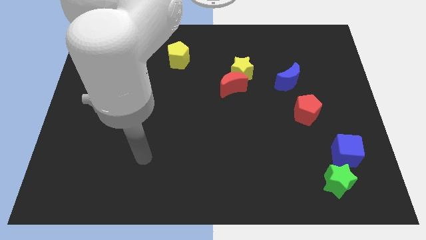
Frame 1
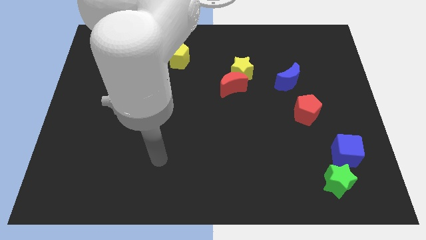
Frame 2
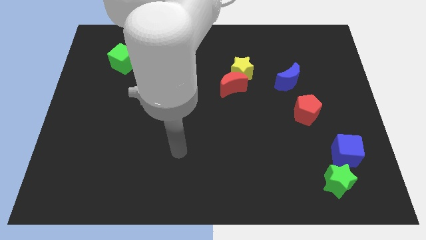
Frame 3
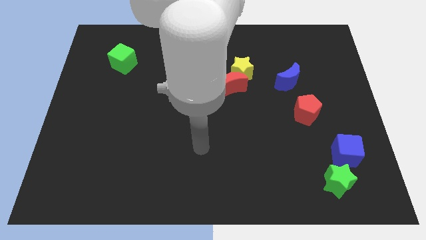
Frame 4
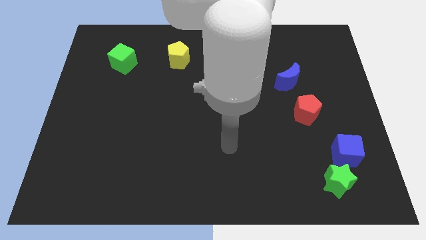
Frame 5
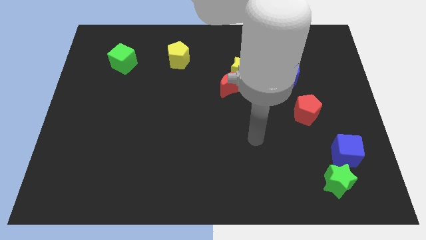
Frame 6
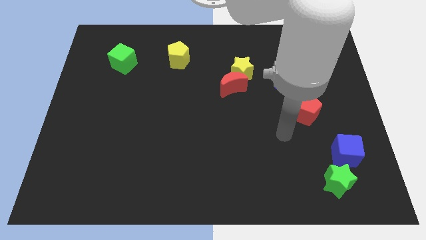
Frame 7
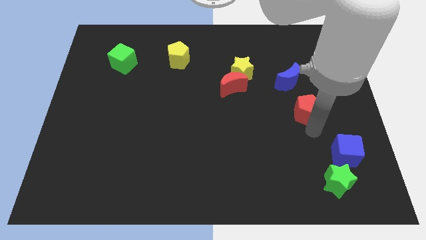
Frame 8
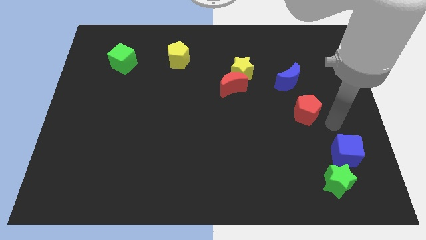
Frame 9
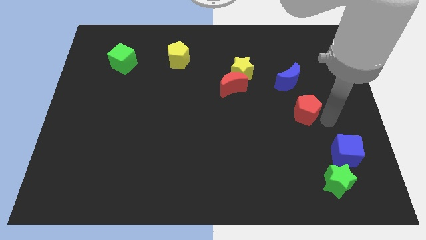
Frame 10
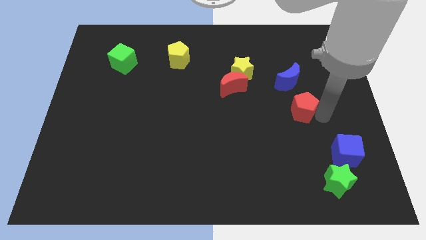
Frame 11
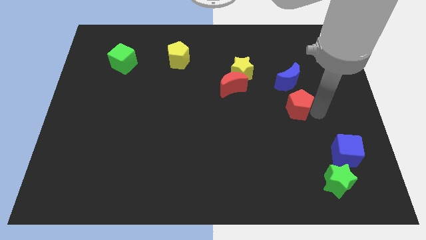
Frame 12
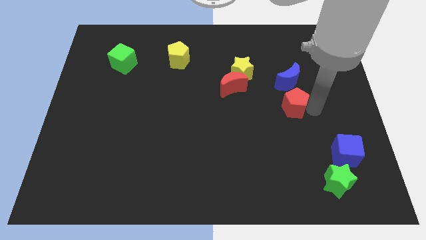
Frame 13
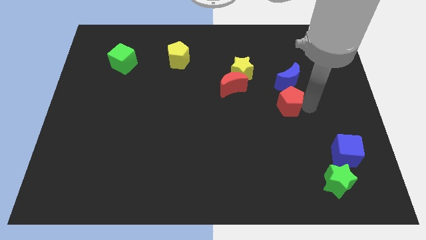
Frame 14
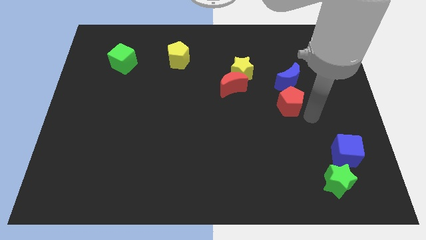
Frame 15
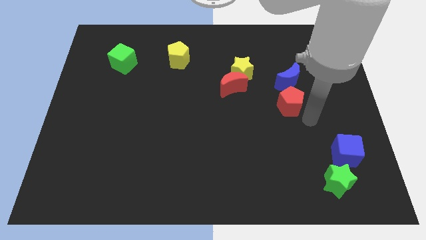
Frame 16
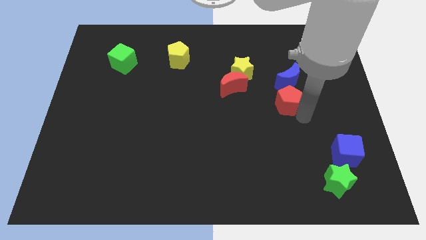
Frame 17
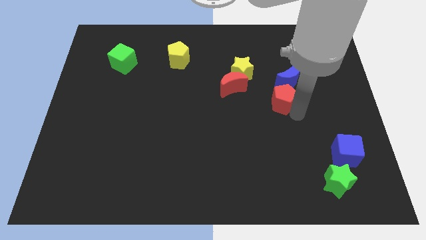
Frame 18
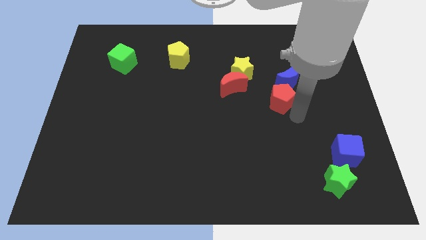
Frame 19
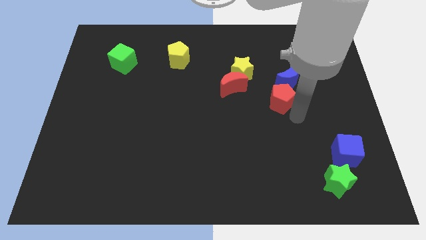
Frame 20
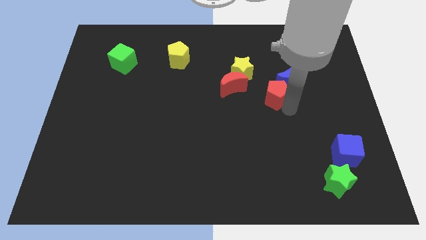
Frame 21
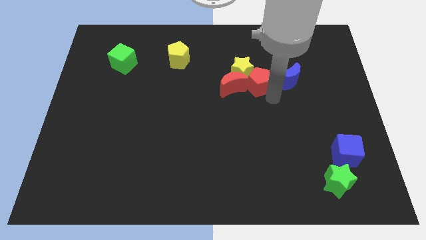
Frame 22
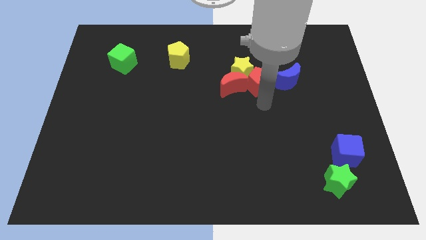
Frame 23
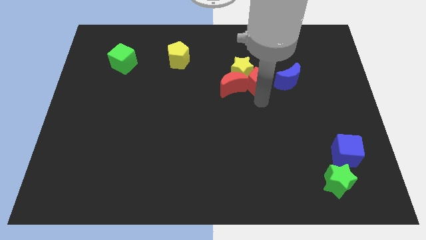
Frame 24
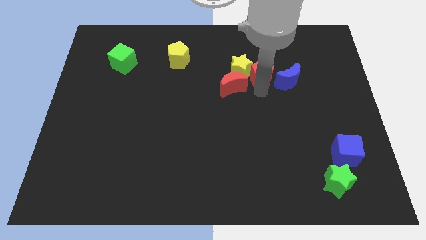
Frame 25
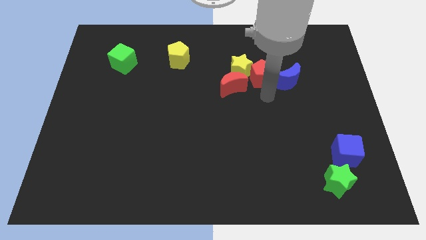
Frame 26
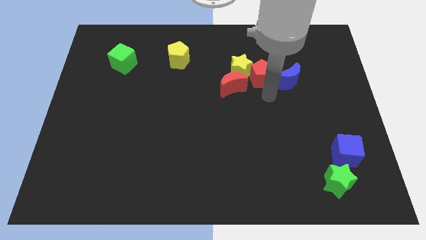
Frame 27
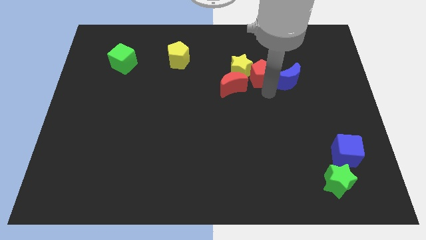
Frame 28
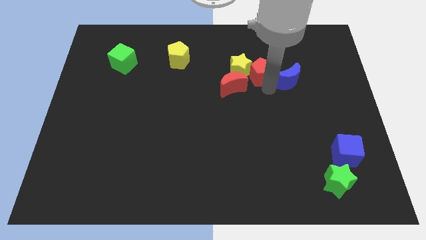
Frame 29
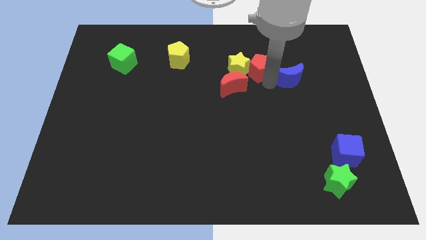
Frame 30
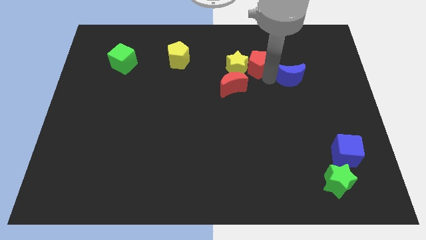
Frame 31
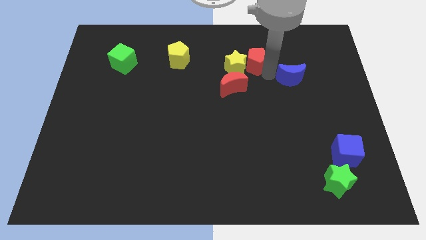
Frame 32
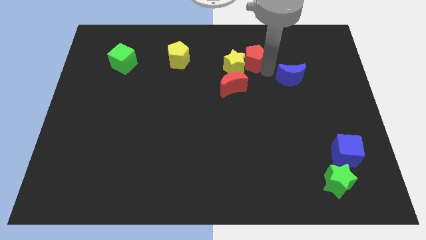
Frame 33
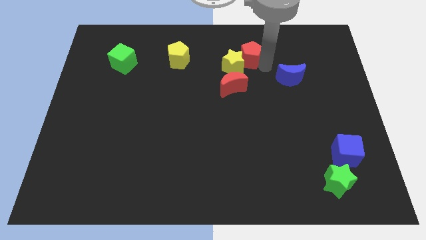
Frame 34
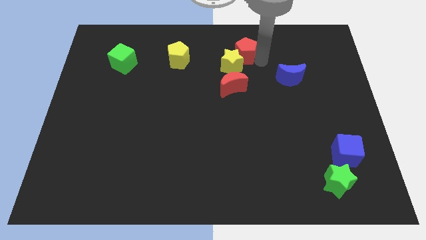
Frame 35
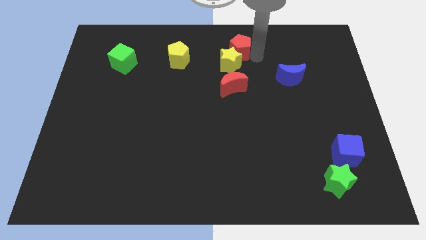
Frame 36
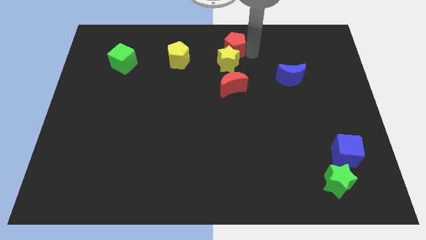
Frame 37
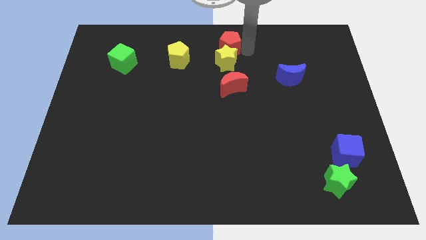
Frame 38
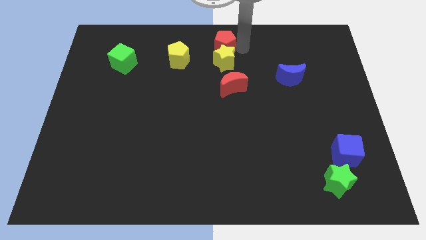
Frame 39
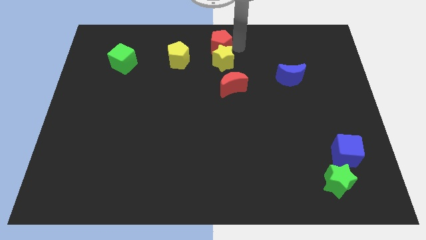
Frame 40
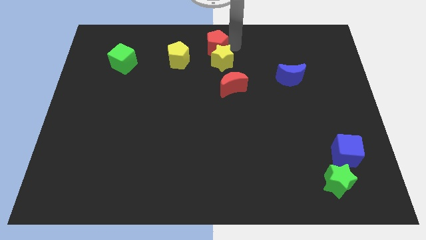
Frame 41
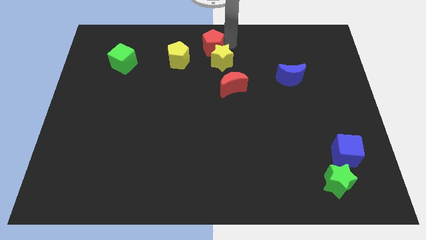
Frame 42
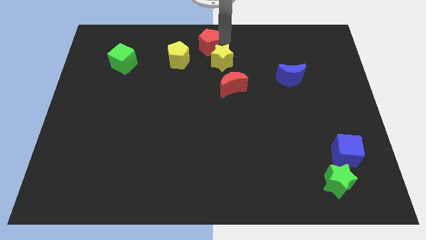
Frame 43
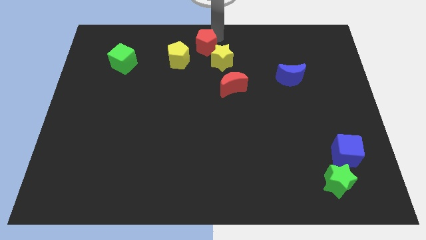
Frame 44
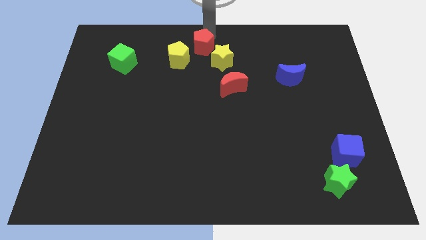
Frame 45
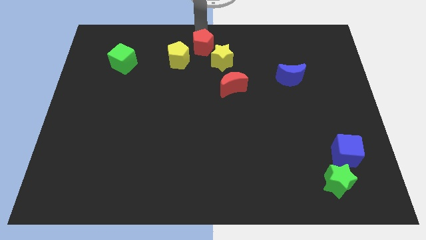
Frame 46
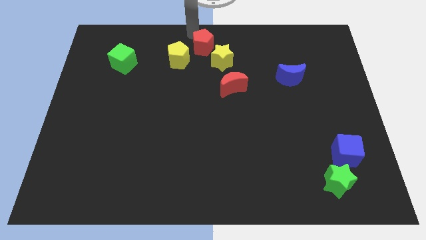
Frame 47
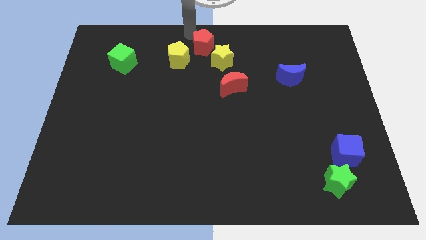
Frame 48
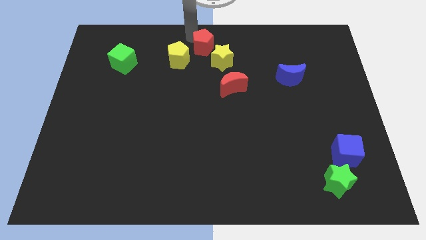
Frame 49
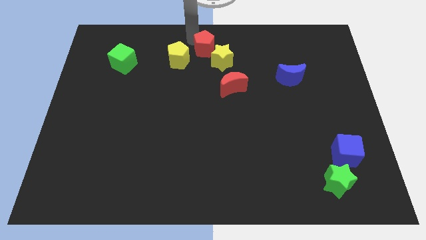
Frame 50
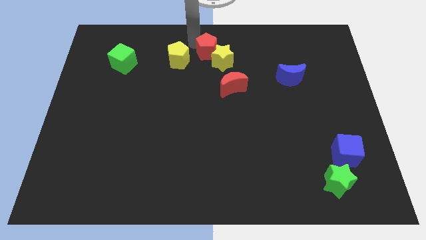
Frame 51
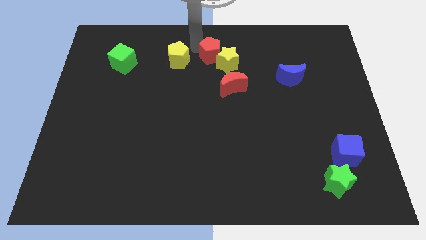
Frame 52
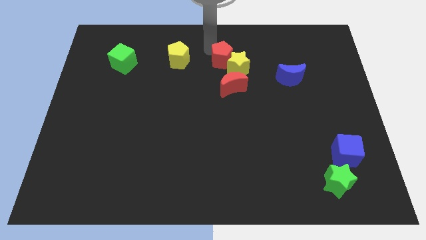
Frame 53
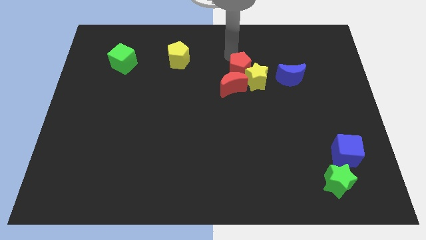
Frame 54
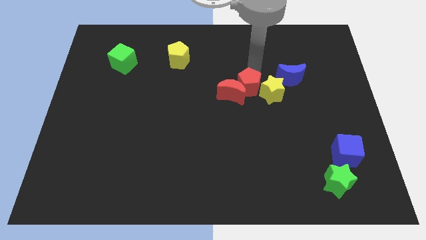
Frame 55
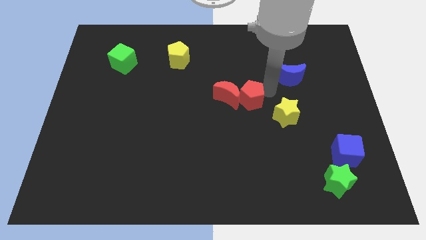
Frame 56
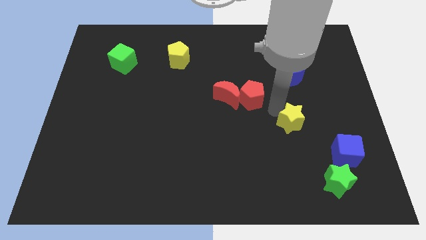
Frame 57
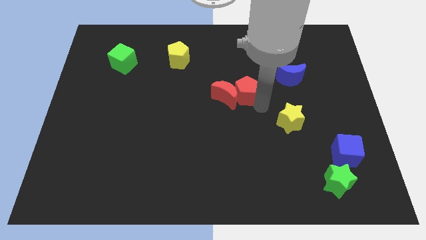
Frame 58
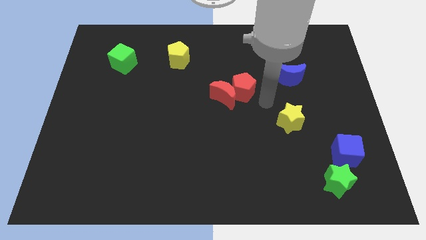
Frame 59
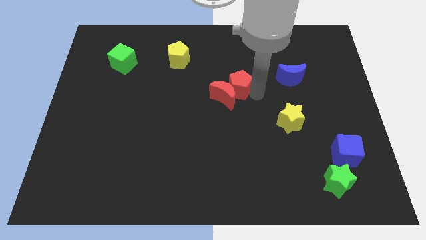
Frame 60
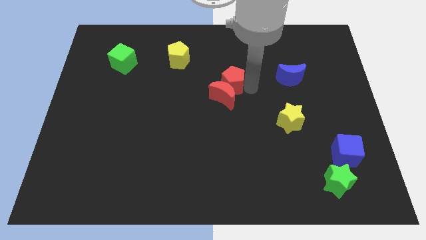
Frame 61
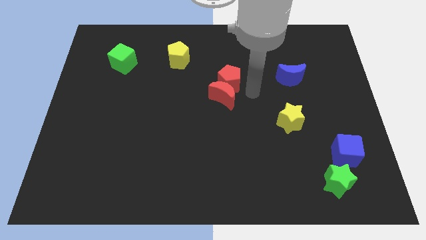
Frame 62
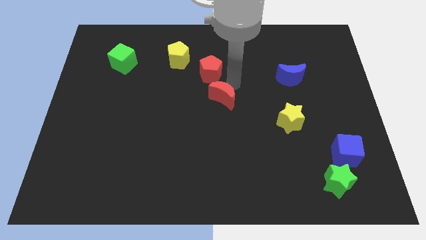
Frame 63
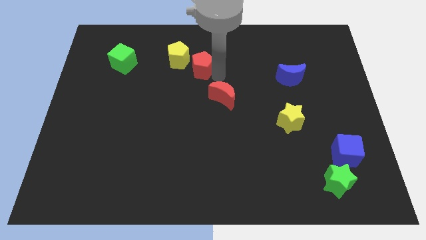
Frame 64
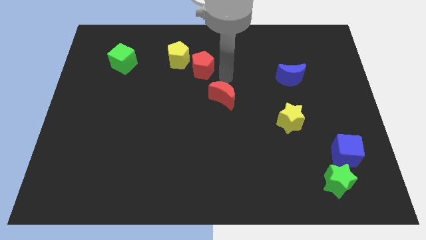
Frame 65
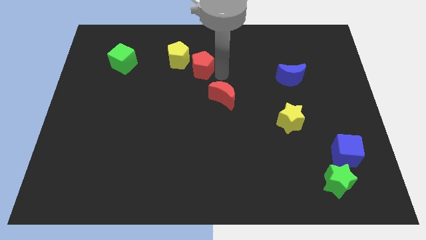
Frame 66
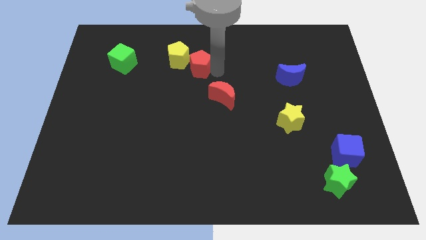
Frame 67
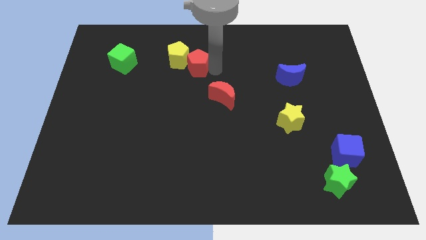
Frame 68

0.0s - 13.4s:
move the red pentagon towards the yellow pentagon

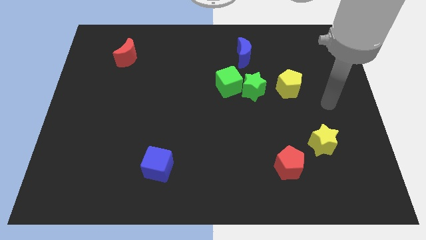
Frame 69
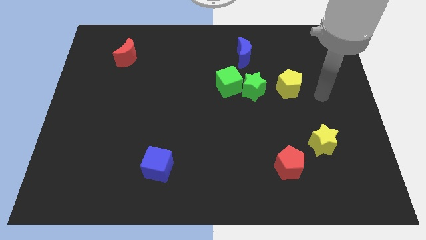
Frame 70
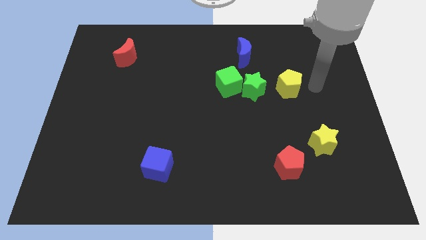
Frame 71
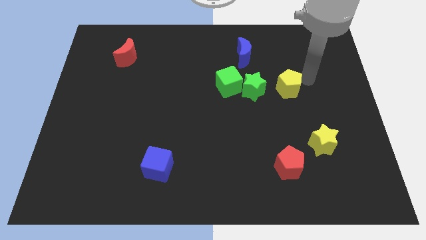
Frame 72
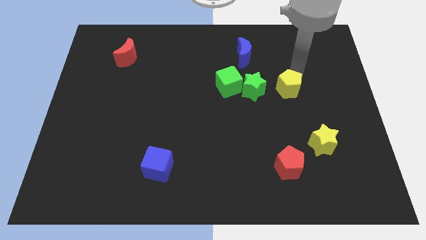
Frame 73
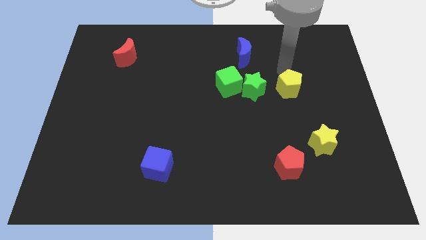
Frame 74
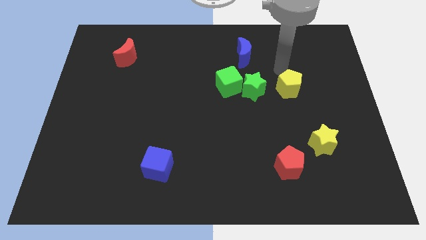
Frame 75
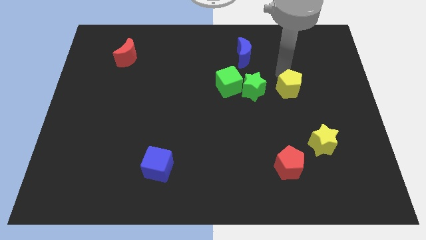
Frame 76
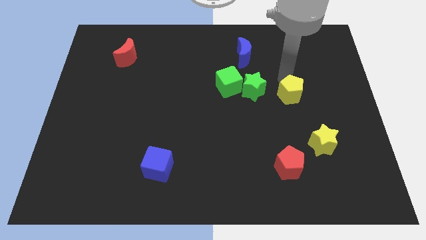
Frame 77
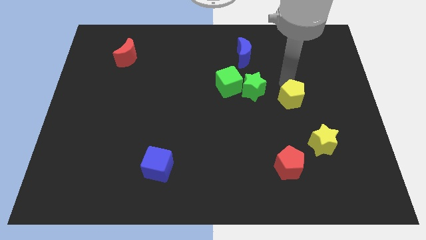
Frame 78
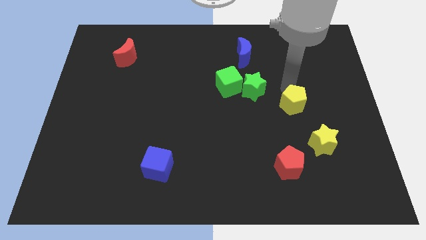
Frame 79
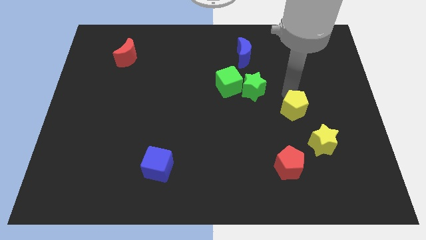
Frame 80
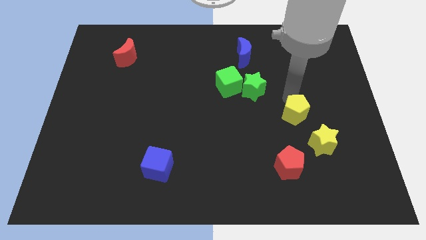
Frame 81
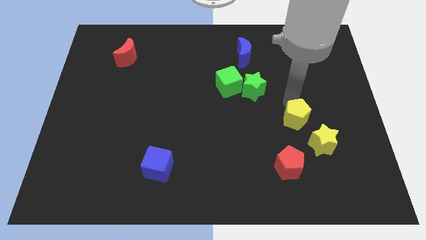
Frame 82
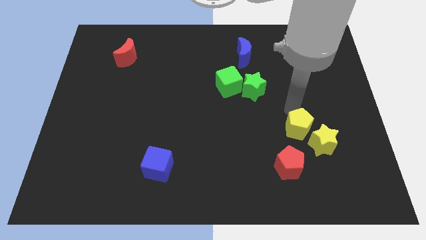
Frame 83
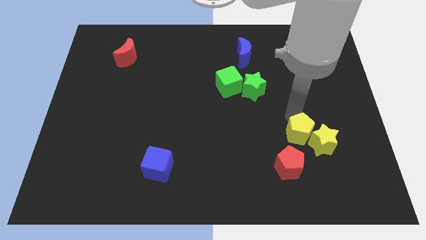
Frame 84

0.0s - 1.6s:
push the yellow pentagon towards the yellow star

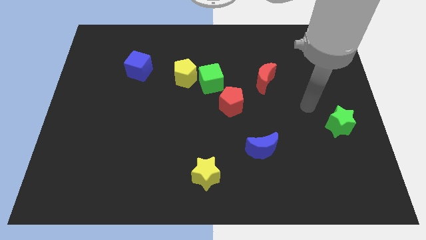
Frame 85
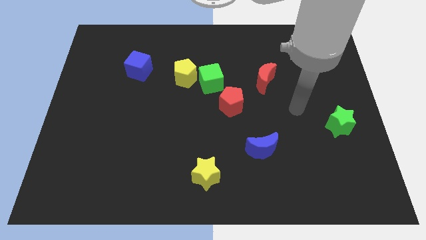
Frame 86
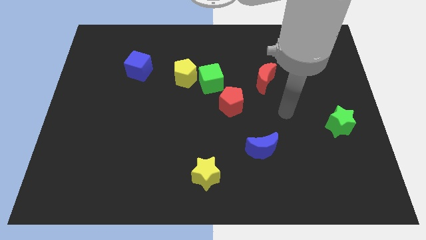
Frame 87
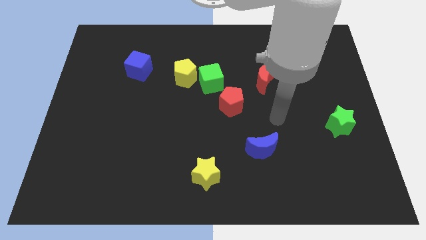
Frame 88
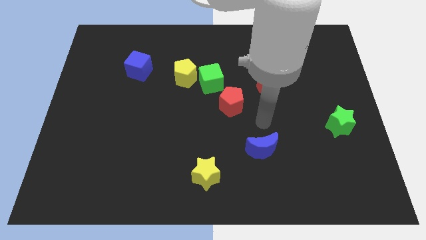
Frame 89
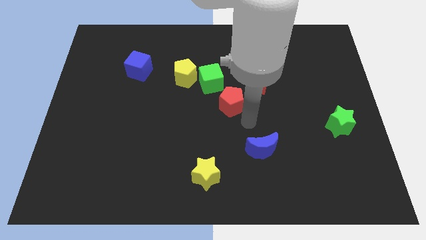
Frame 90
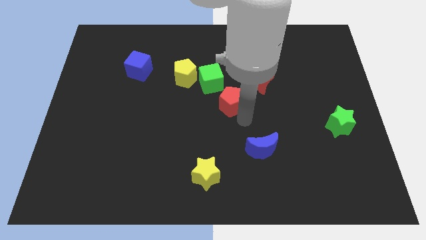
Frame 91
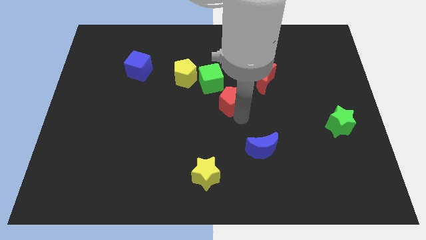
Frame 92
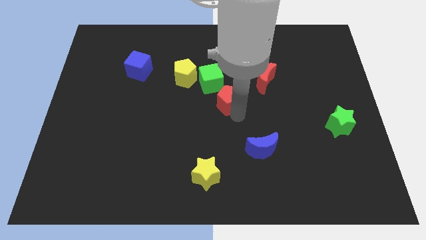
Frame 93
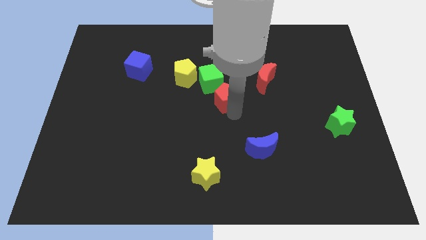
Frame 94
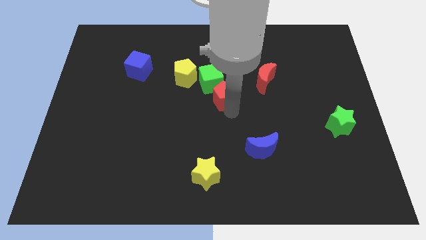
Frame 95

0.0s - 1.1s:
put the red pentagon towards the green cube
